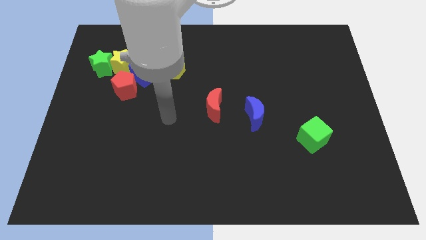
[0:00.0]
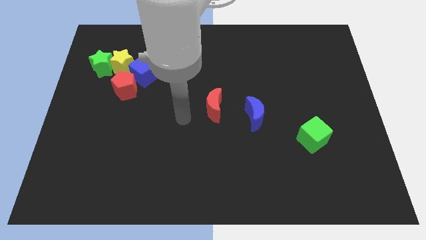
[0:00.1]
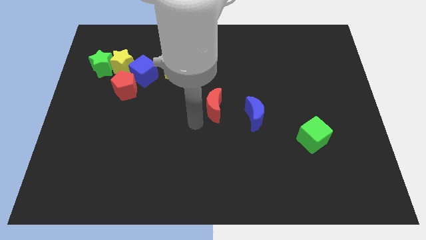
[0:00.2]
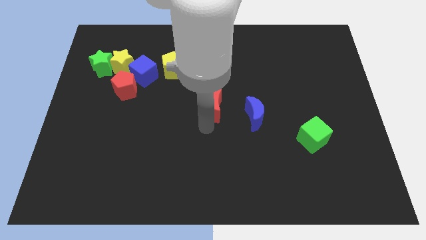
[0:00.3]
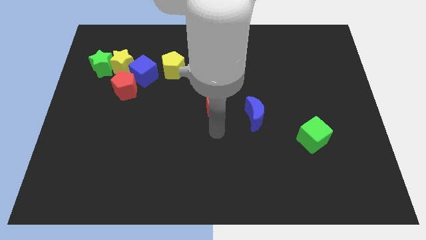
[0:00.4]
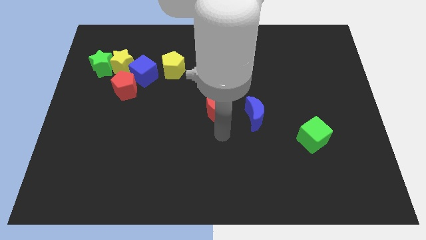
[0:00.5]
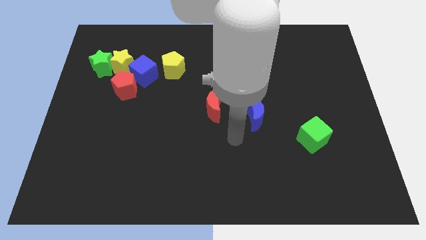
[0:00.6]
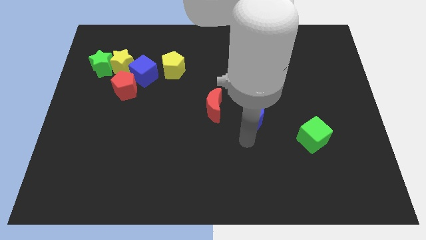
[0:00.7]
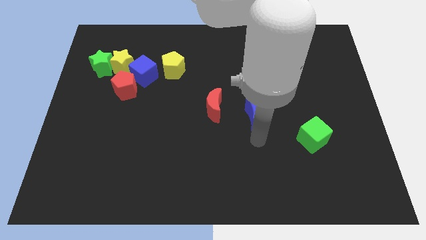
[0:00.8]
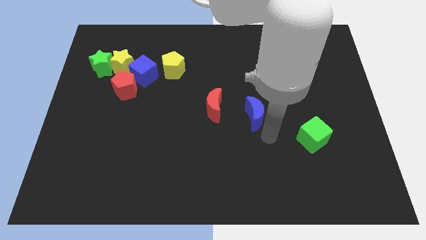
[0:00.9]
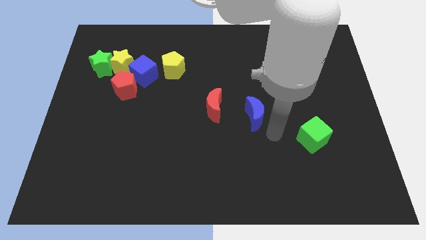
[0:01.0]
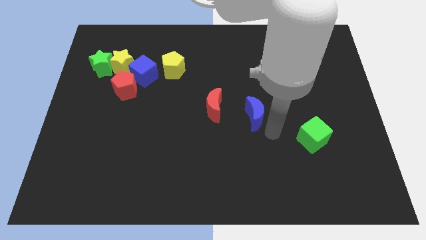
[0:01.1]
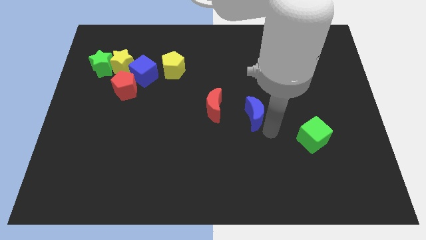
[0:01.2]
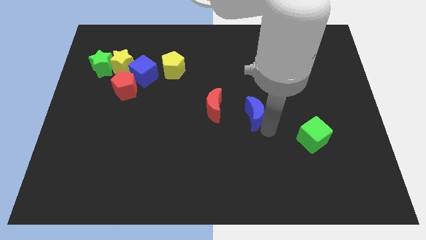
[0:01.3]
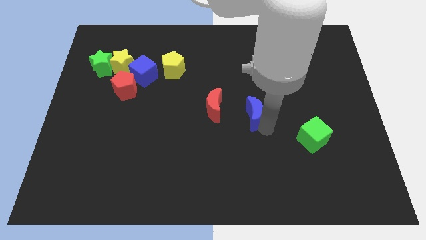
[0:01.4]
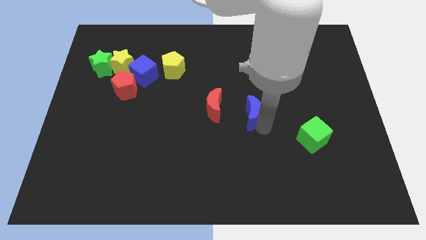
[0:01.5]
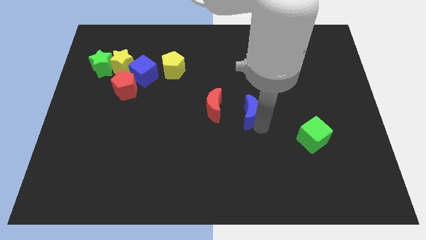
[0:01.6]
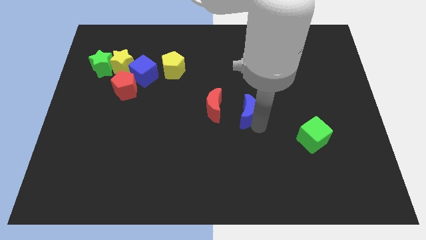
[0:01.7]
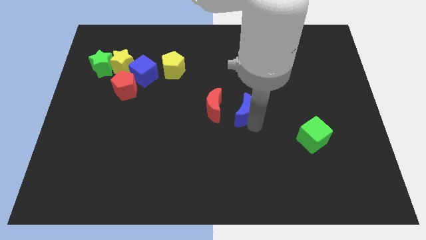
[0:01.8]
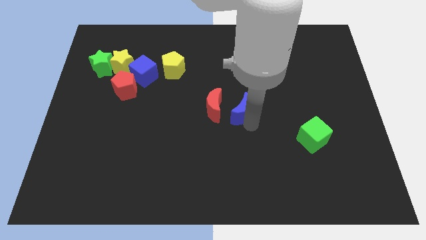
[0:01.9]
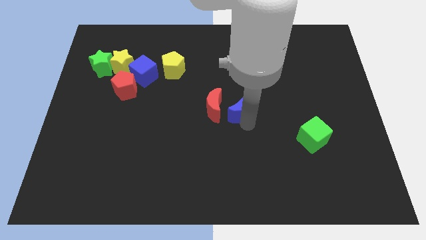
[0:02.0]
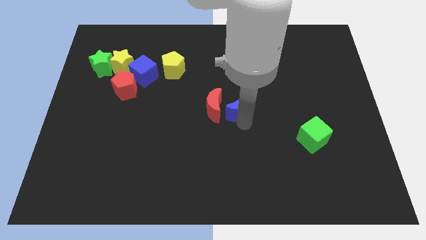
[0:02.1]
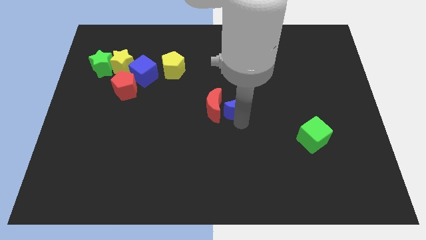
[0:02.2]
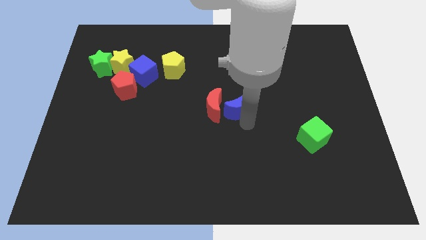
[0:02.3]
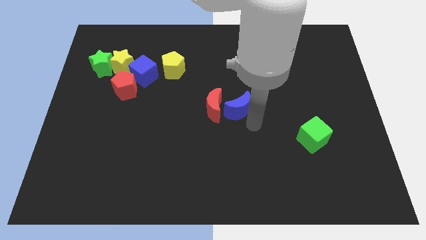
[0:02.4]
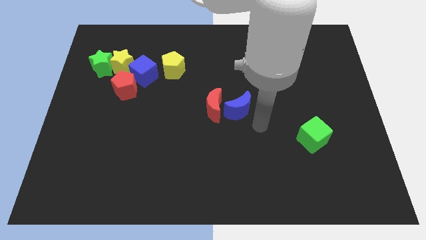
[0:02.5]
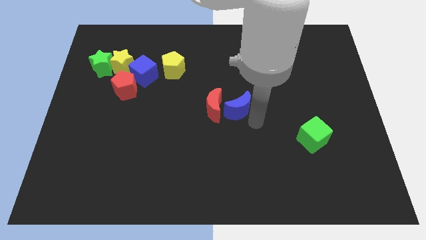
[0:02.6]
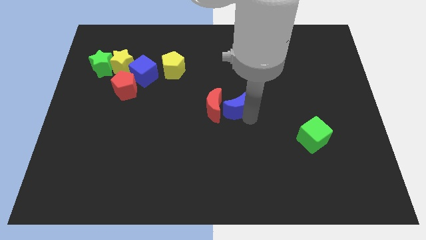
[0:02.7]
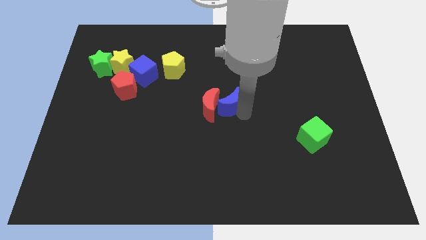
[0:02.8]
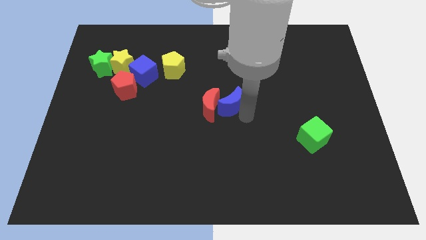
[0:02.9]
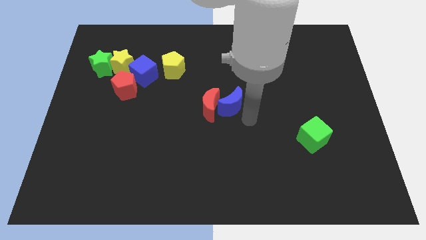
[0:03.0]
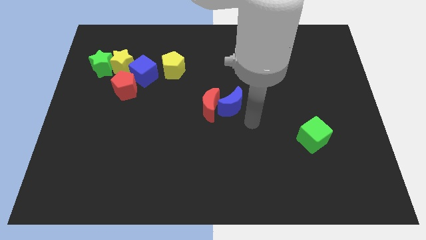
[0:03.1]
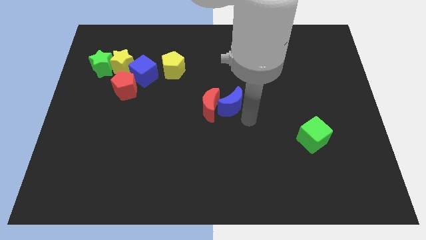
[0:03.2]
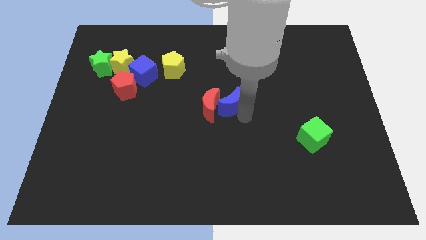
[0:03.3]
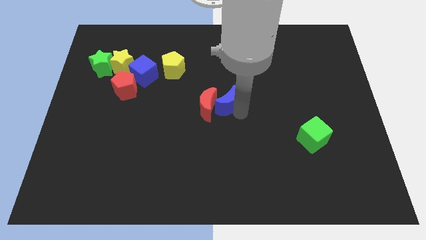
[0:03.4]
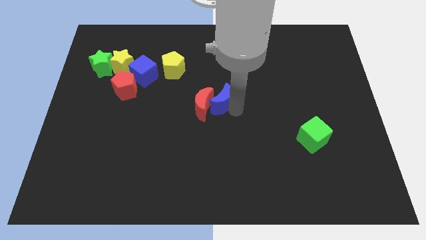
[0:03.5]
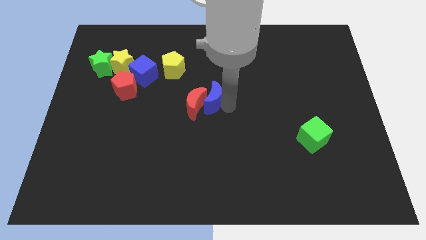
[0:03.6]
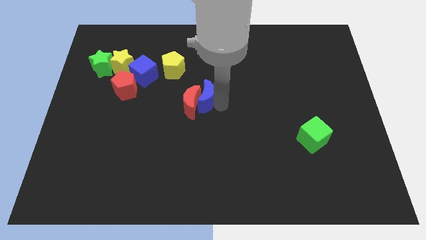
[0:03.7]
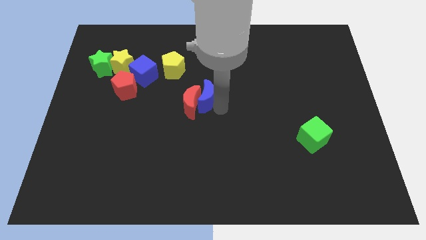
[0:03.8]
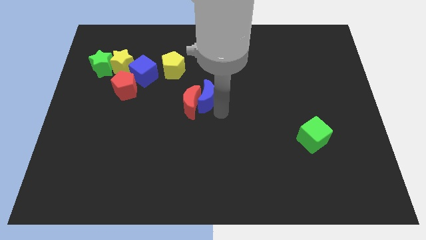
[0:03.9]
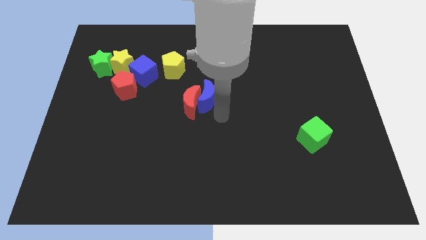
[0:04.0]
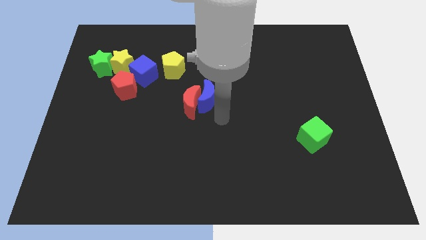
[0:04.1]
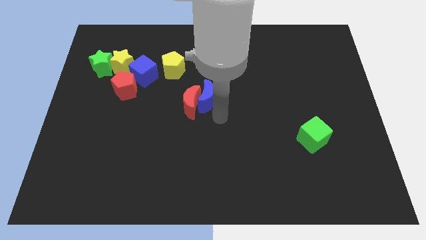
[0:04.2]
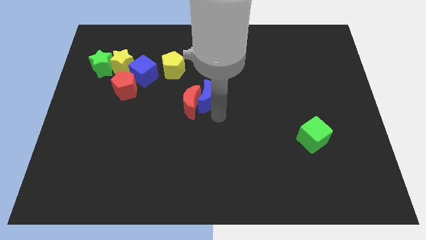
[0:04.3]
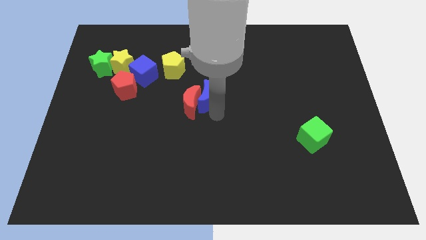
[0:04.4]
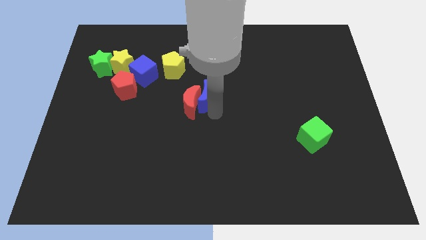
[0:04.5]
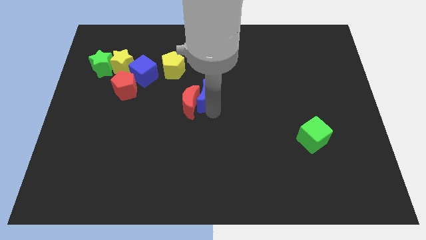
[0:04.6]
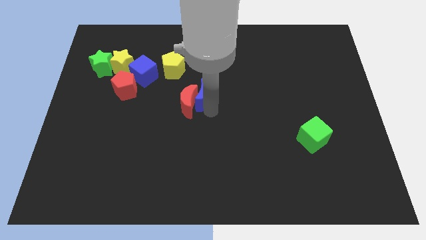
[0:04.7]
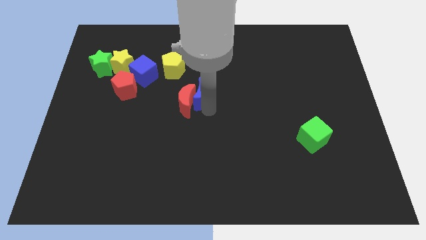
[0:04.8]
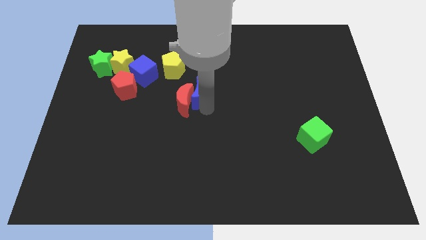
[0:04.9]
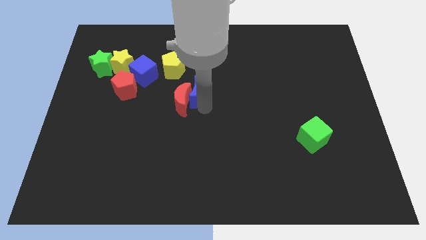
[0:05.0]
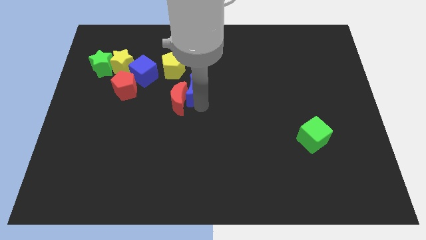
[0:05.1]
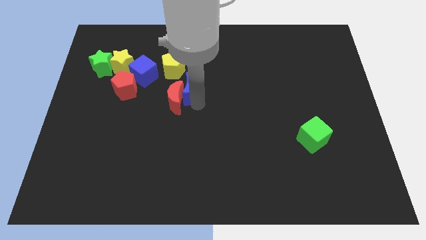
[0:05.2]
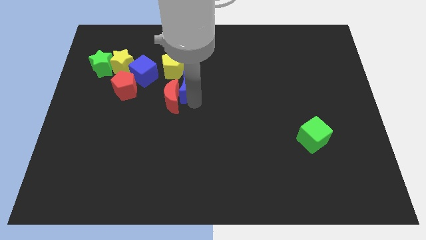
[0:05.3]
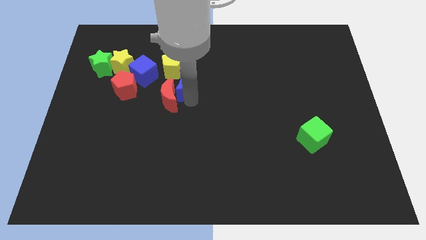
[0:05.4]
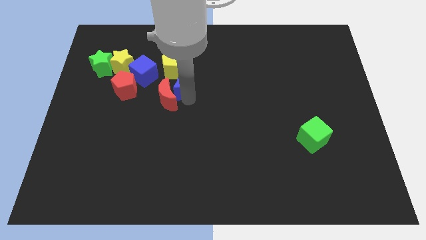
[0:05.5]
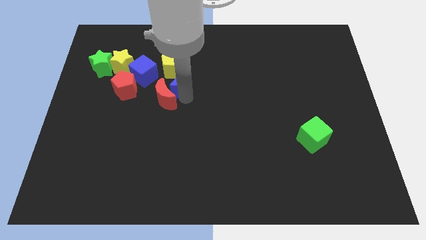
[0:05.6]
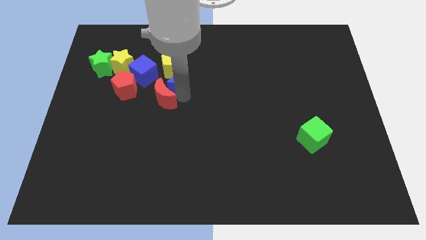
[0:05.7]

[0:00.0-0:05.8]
move the blue moon close to the yellow pentagon
